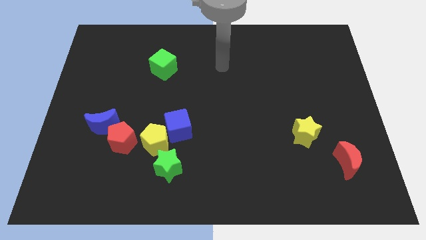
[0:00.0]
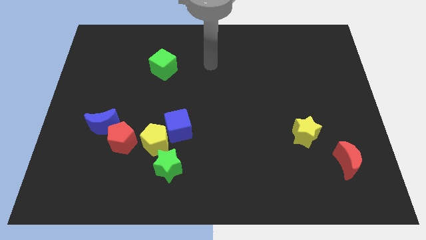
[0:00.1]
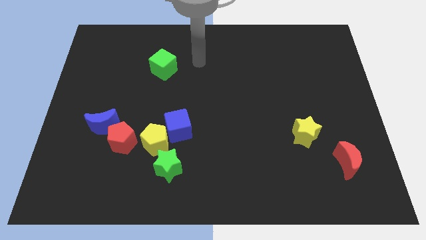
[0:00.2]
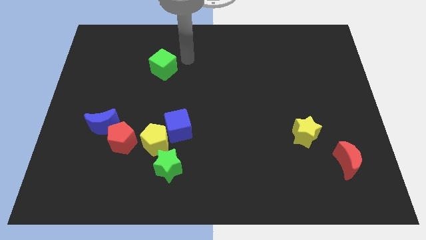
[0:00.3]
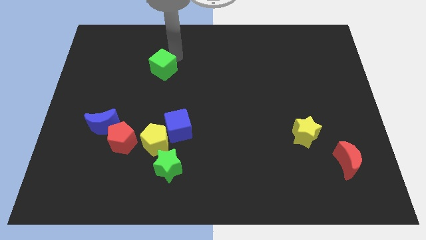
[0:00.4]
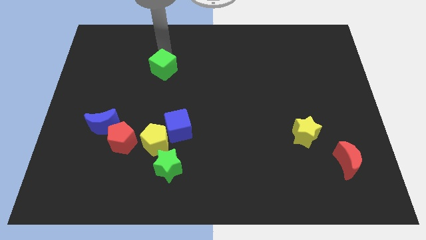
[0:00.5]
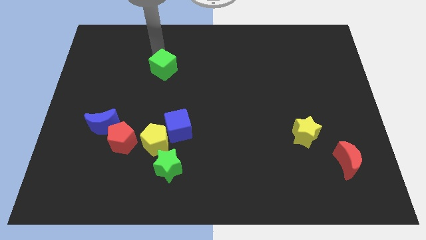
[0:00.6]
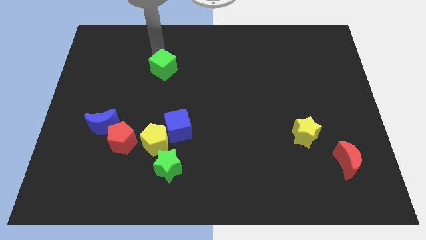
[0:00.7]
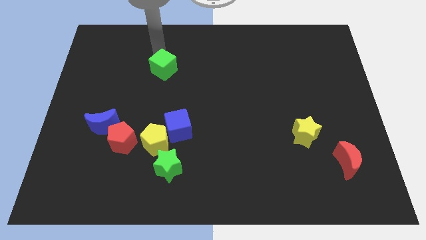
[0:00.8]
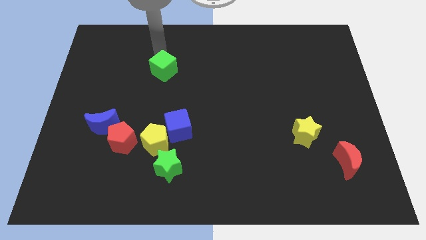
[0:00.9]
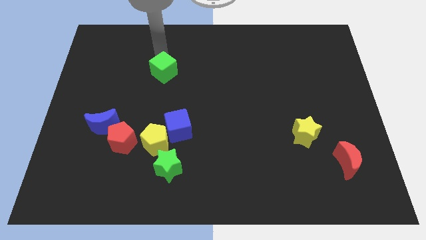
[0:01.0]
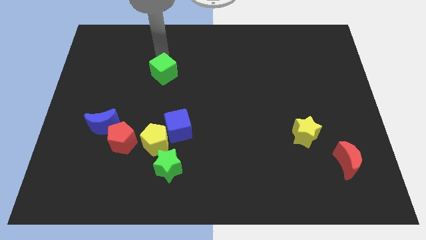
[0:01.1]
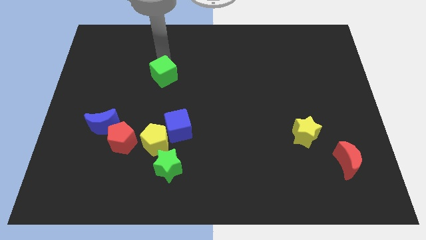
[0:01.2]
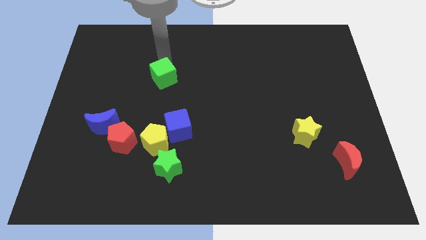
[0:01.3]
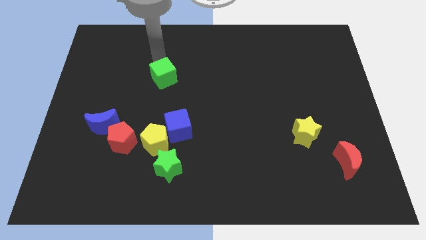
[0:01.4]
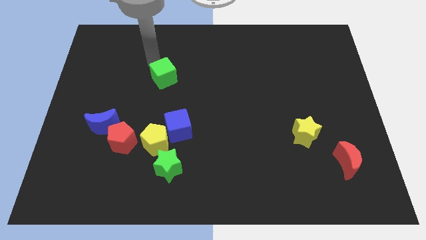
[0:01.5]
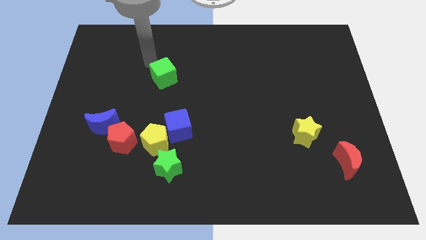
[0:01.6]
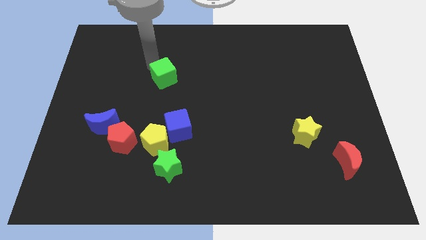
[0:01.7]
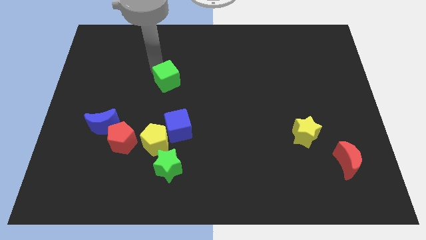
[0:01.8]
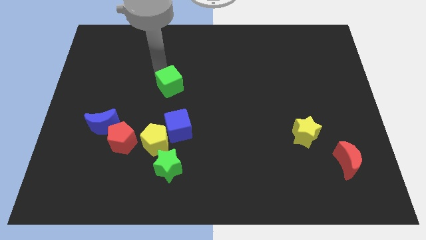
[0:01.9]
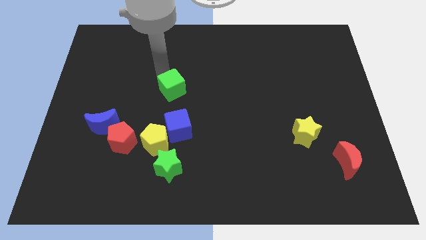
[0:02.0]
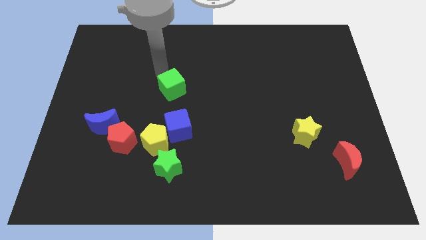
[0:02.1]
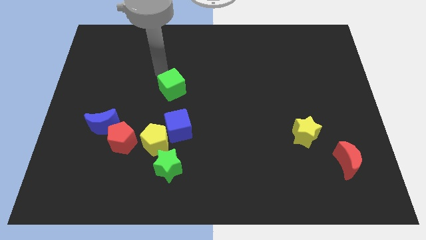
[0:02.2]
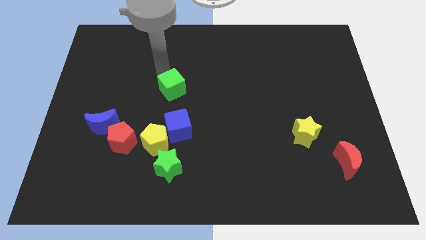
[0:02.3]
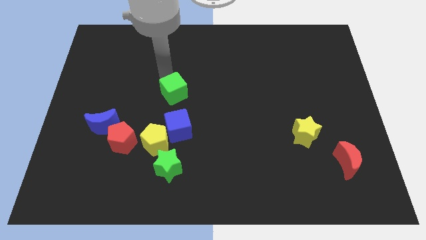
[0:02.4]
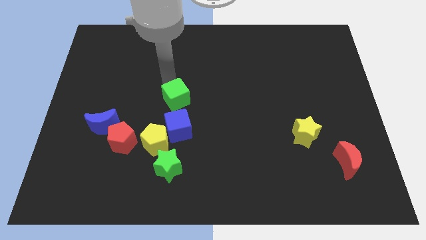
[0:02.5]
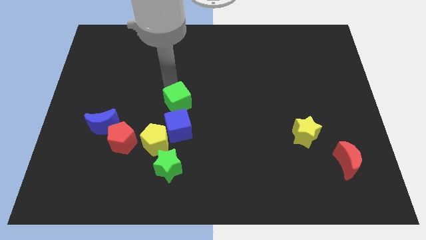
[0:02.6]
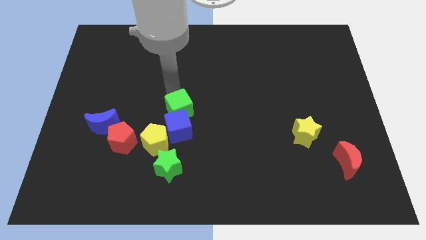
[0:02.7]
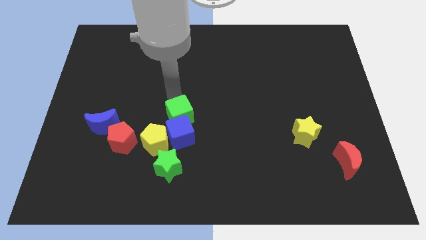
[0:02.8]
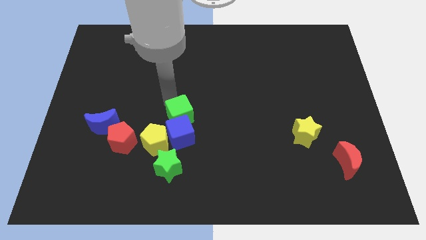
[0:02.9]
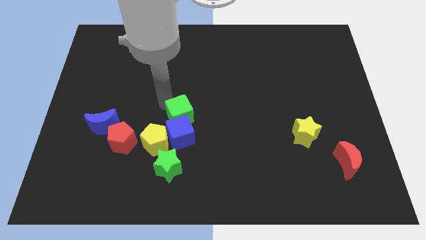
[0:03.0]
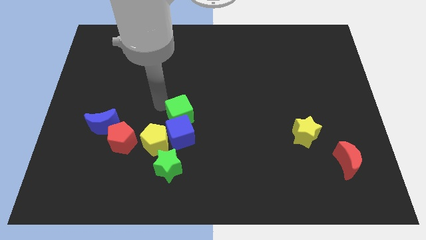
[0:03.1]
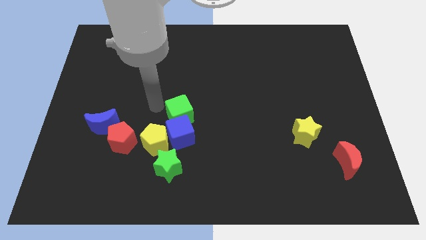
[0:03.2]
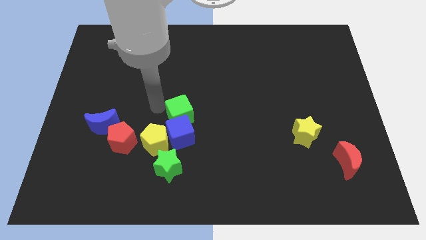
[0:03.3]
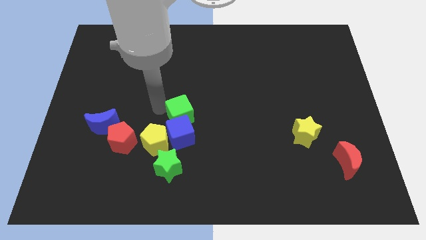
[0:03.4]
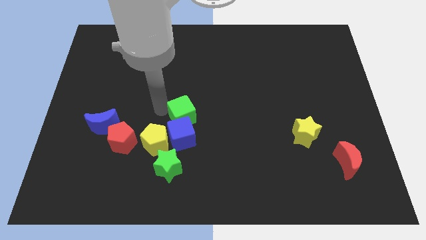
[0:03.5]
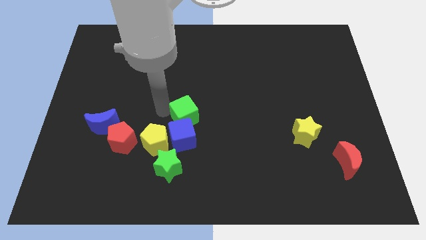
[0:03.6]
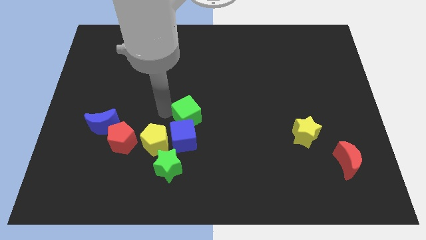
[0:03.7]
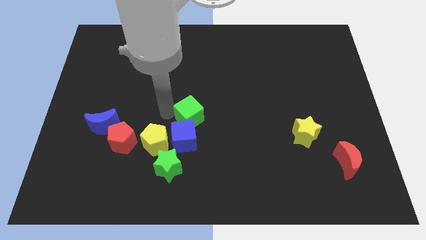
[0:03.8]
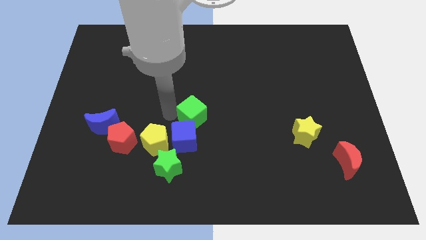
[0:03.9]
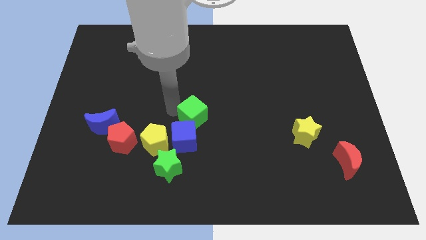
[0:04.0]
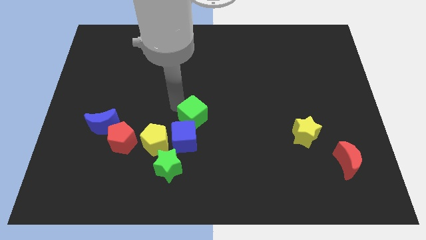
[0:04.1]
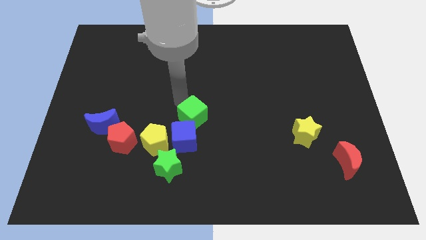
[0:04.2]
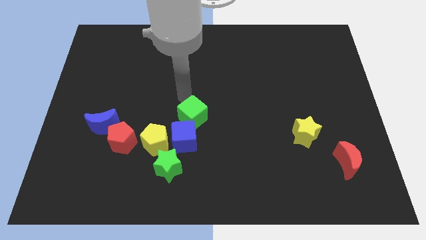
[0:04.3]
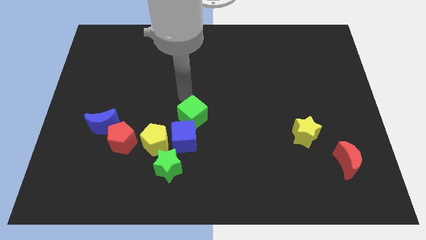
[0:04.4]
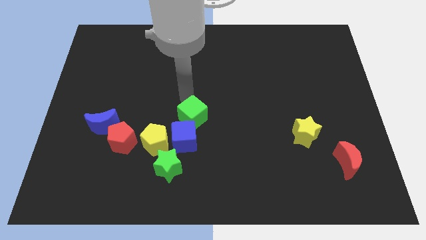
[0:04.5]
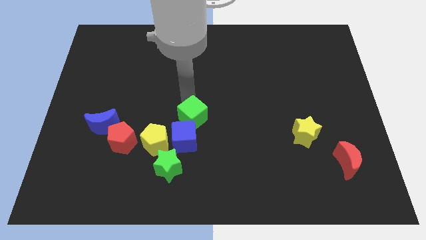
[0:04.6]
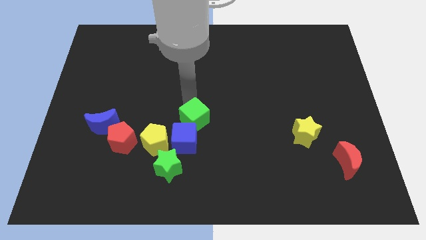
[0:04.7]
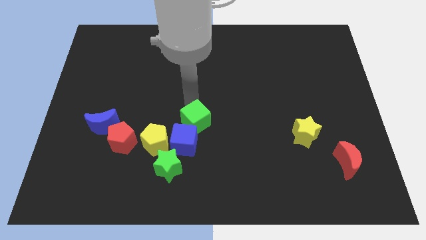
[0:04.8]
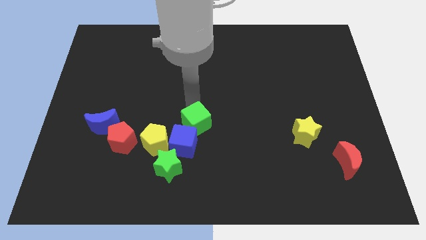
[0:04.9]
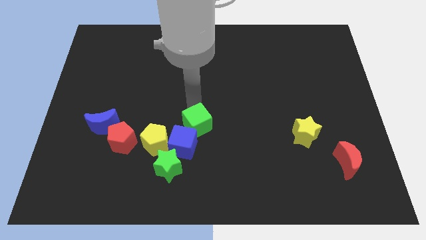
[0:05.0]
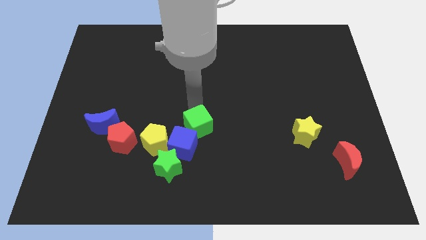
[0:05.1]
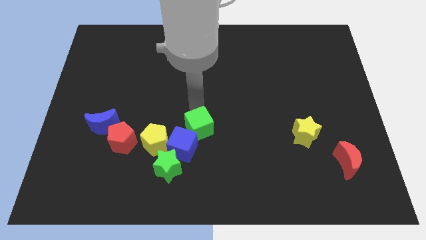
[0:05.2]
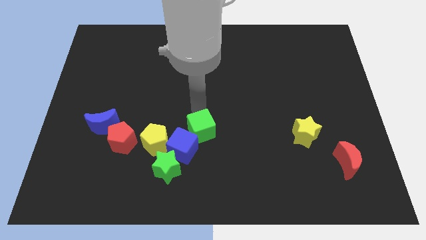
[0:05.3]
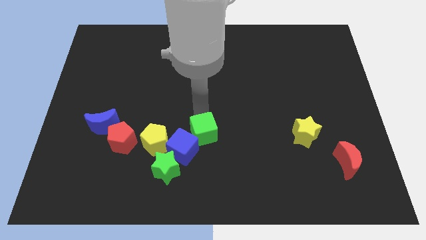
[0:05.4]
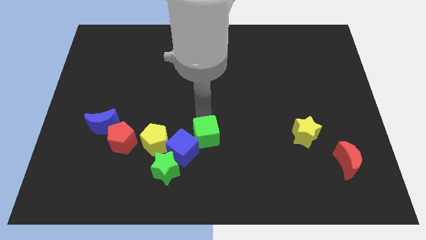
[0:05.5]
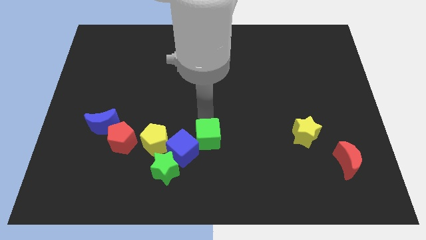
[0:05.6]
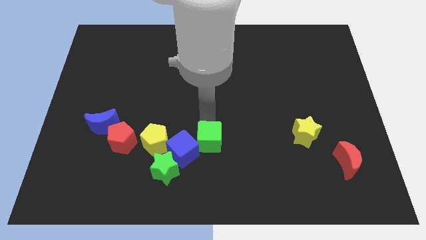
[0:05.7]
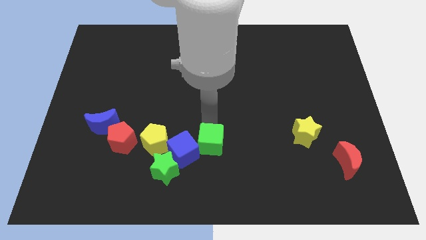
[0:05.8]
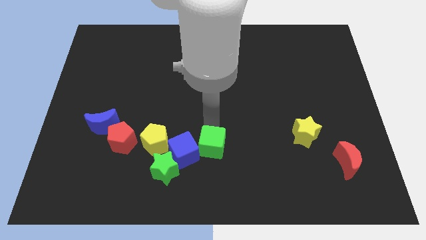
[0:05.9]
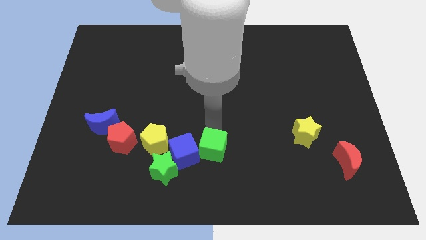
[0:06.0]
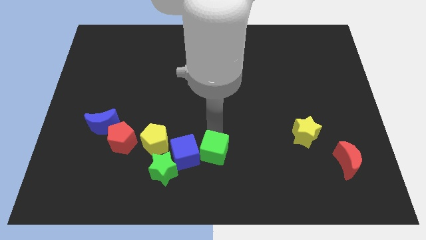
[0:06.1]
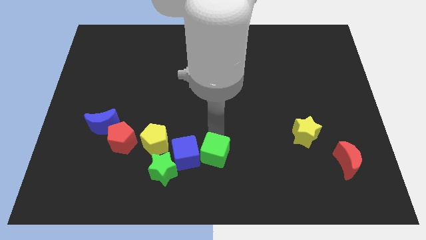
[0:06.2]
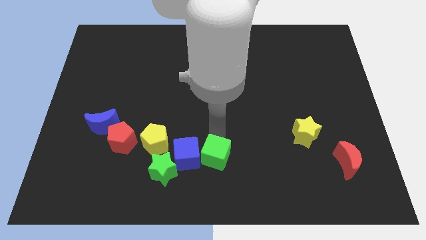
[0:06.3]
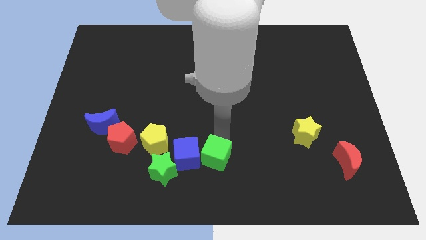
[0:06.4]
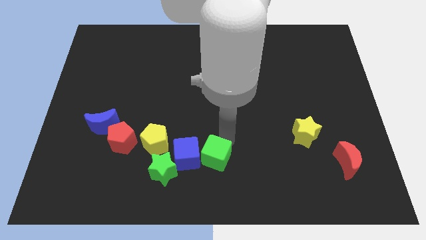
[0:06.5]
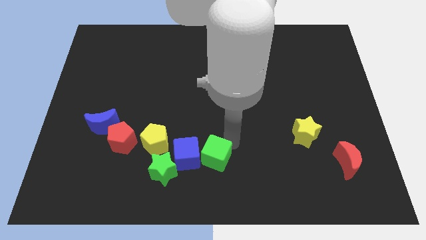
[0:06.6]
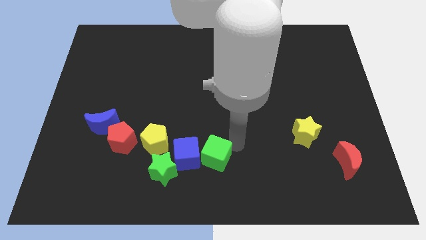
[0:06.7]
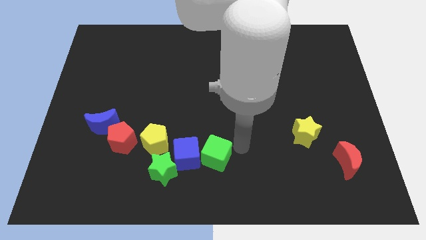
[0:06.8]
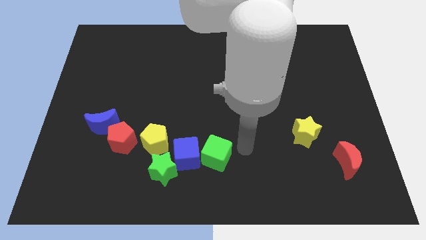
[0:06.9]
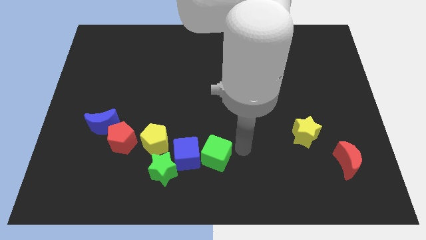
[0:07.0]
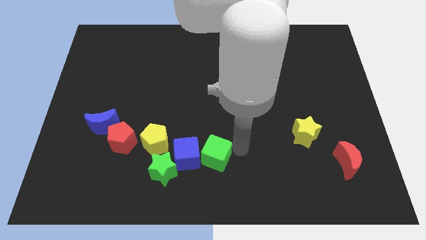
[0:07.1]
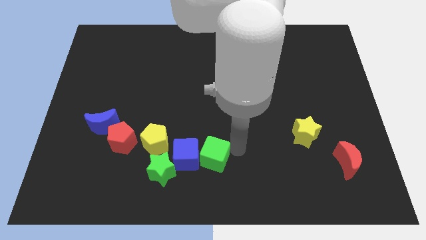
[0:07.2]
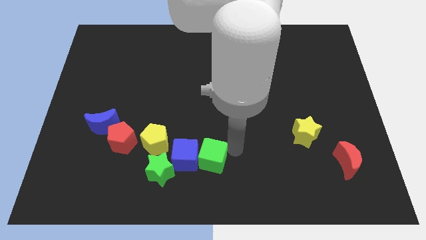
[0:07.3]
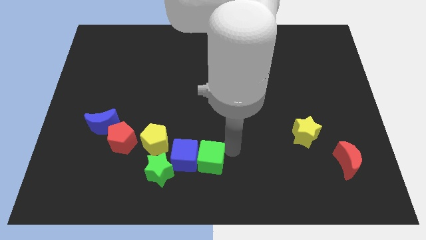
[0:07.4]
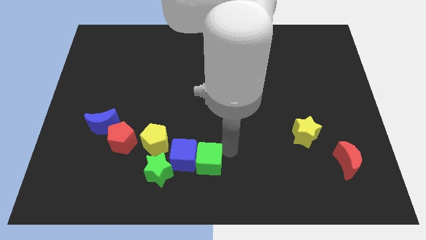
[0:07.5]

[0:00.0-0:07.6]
slide the green cube downwards

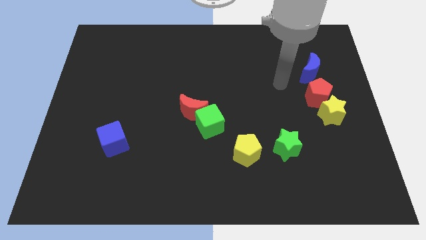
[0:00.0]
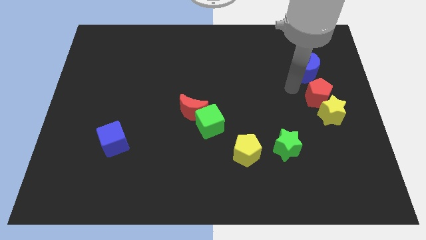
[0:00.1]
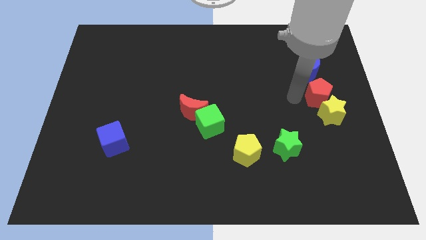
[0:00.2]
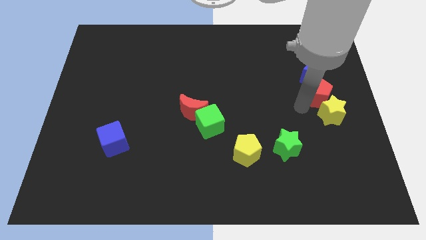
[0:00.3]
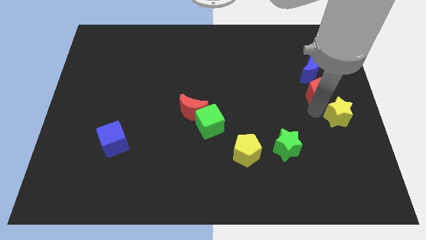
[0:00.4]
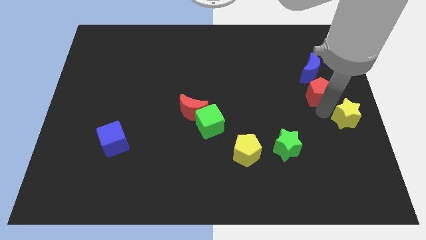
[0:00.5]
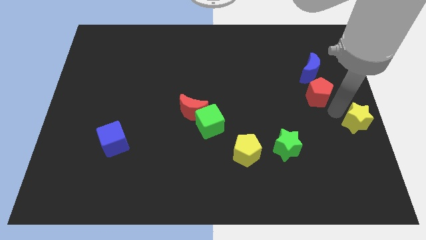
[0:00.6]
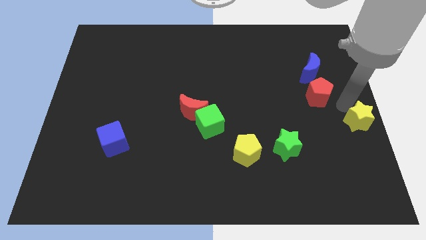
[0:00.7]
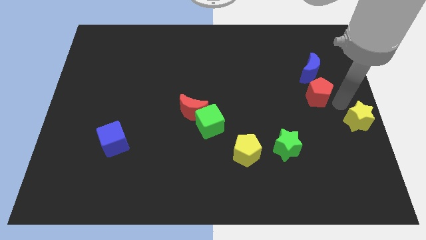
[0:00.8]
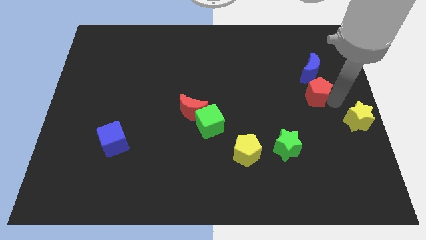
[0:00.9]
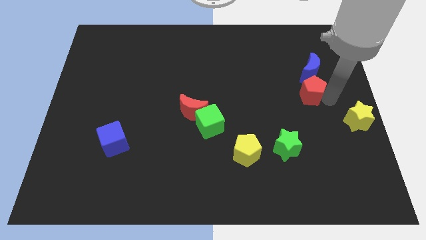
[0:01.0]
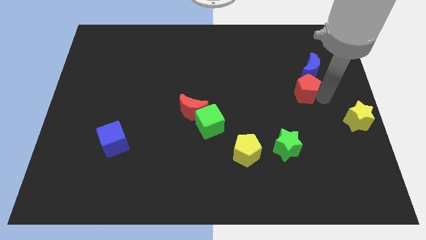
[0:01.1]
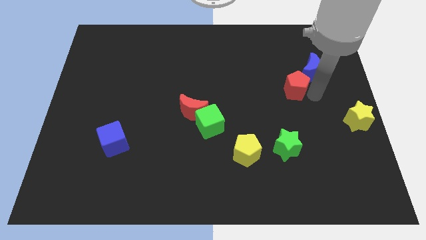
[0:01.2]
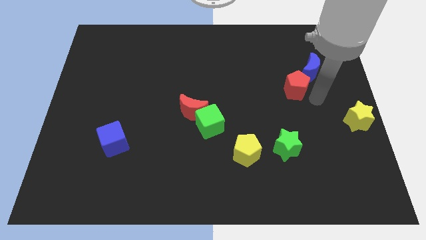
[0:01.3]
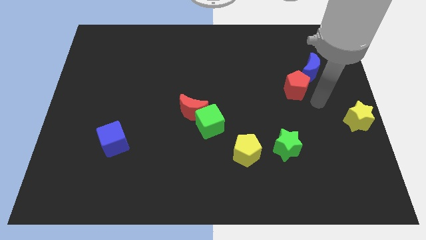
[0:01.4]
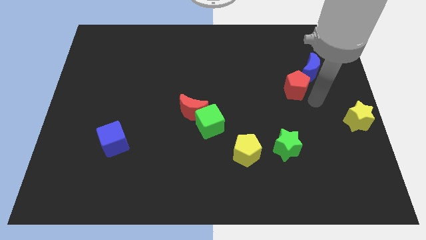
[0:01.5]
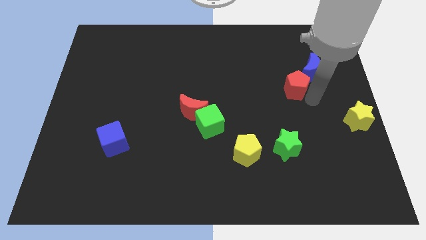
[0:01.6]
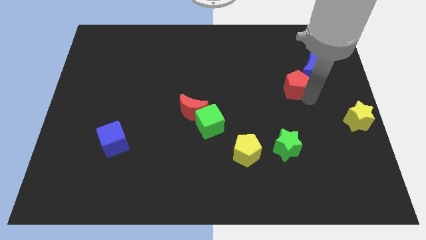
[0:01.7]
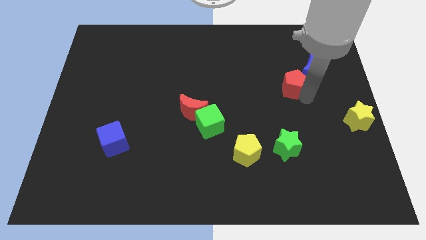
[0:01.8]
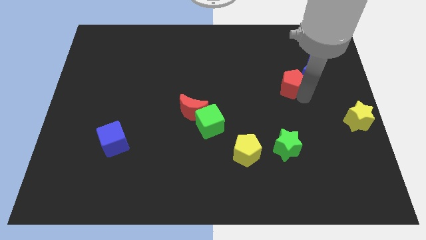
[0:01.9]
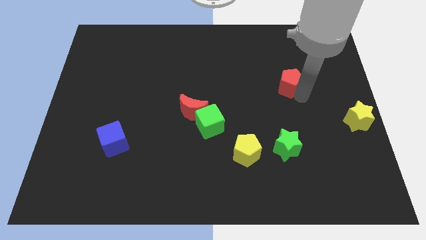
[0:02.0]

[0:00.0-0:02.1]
slide the red pentagon a little bit upwards and left
